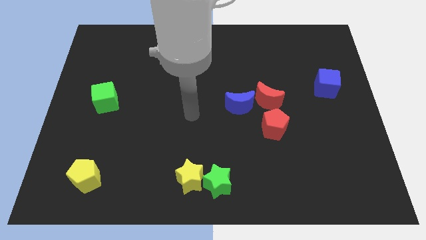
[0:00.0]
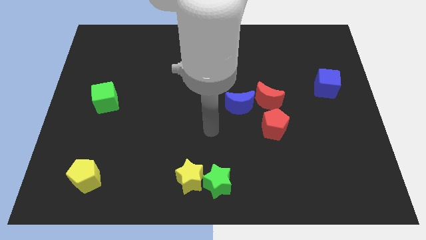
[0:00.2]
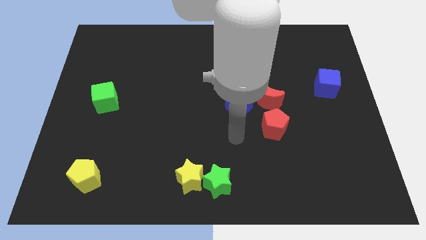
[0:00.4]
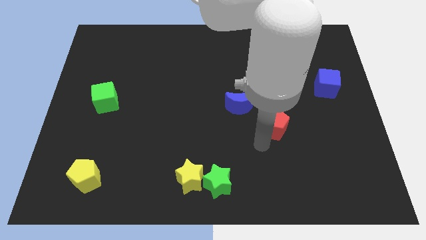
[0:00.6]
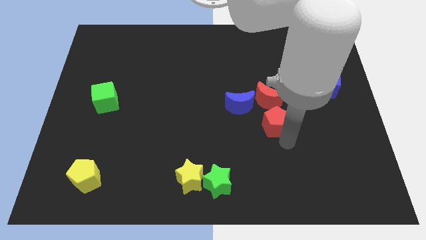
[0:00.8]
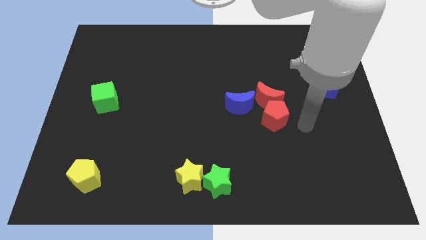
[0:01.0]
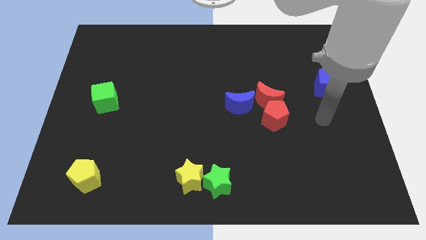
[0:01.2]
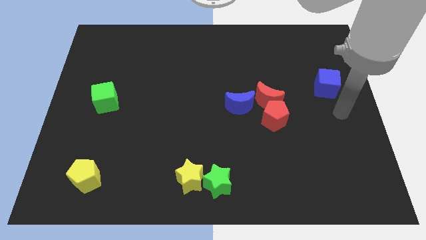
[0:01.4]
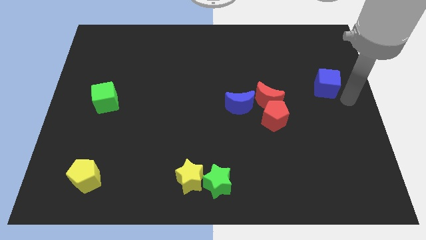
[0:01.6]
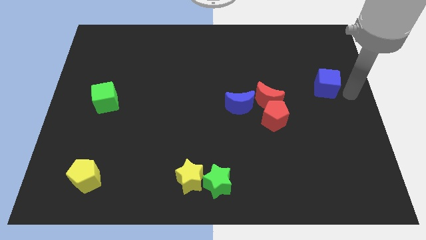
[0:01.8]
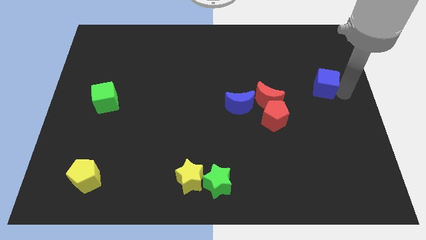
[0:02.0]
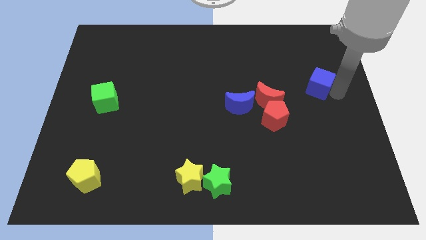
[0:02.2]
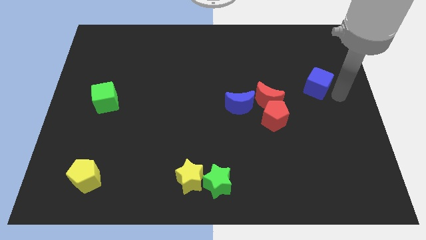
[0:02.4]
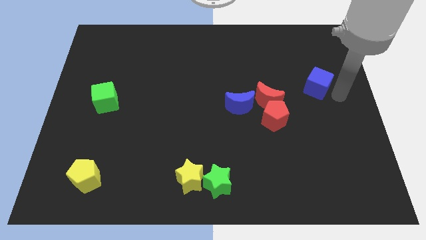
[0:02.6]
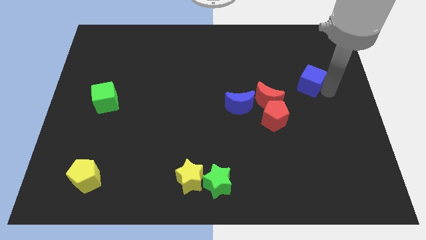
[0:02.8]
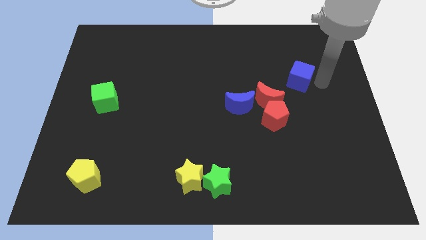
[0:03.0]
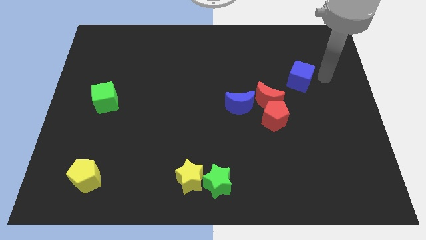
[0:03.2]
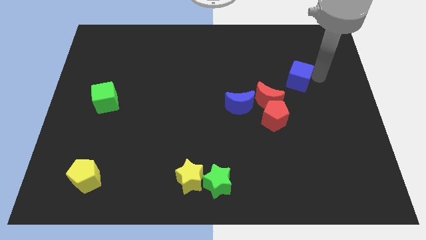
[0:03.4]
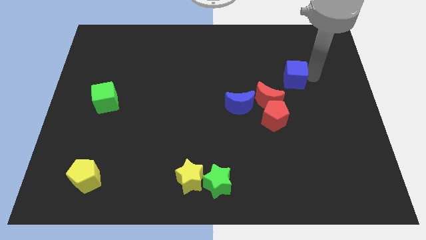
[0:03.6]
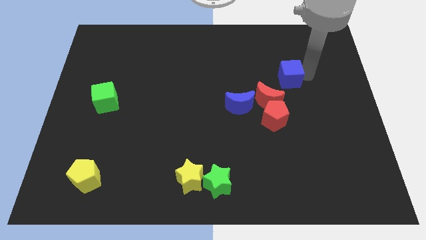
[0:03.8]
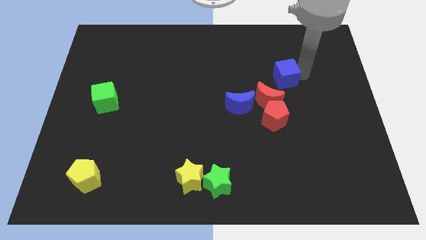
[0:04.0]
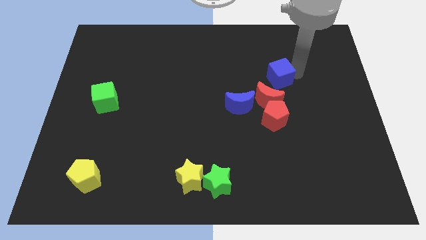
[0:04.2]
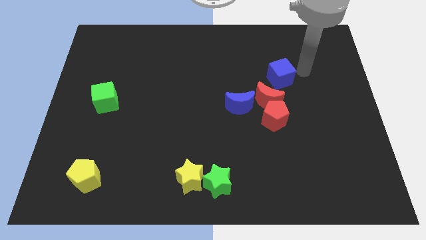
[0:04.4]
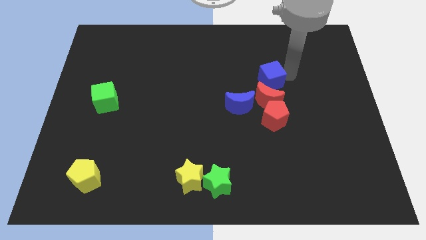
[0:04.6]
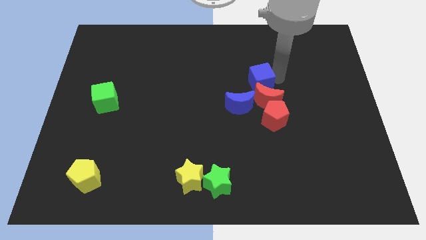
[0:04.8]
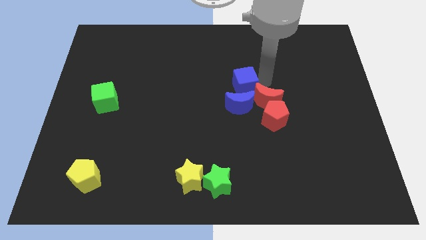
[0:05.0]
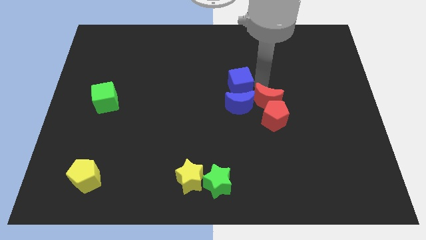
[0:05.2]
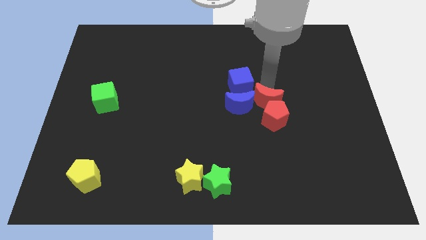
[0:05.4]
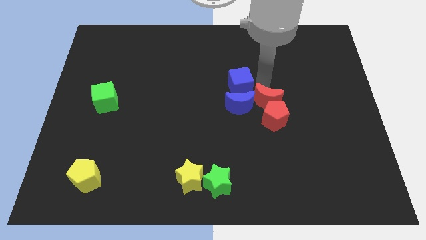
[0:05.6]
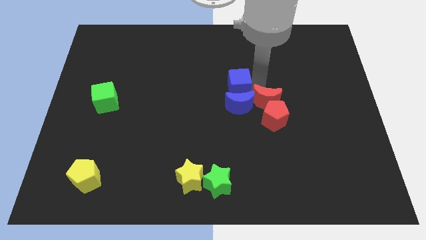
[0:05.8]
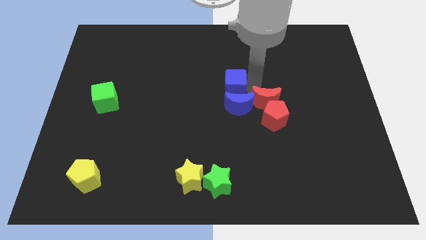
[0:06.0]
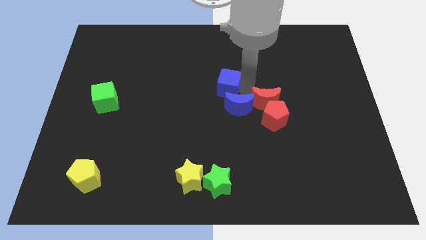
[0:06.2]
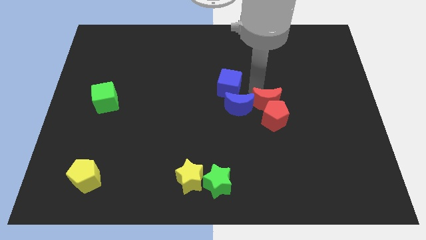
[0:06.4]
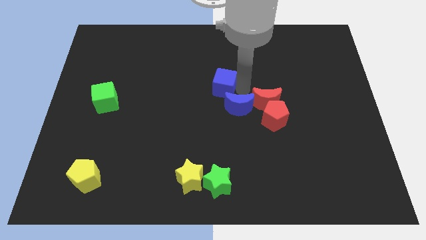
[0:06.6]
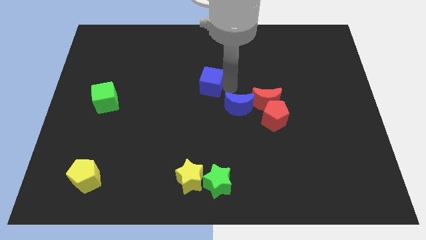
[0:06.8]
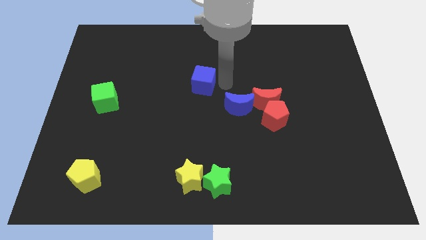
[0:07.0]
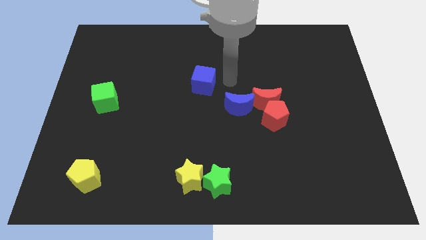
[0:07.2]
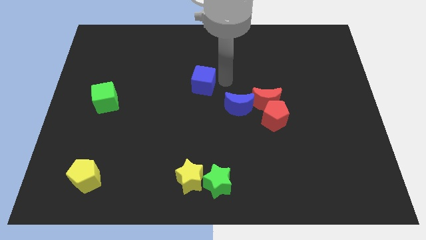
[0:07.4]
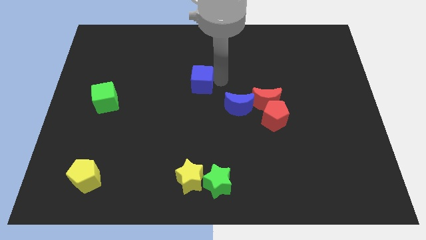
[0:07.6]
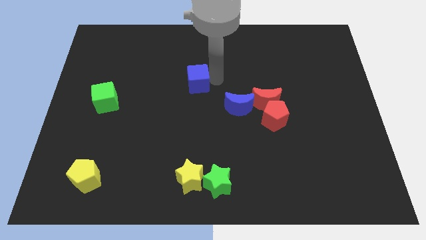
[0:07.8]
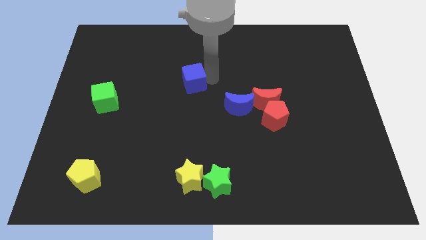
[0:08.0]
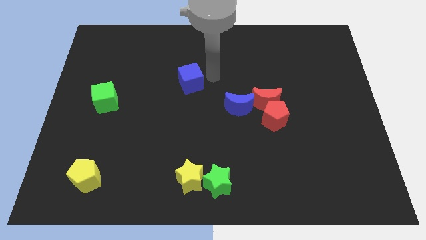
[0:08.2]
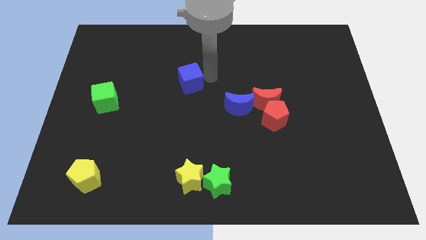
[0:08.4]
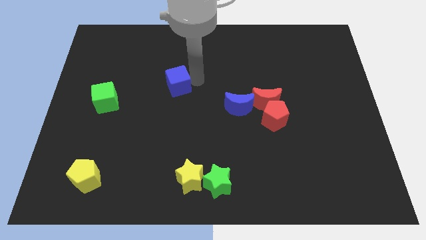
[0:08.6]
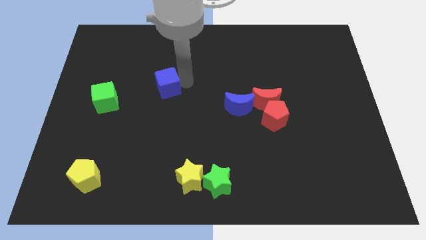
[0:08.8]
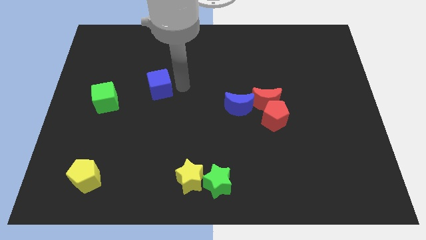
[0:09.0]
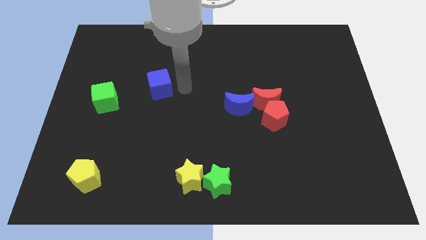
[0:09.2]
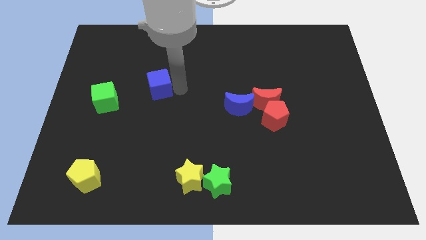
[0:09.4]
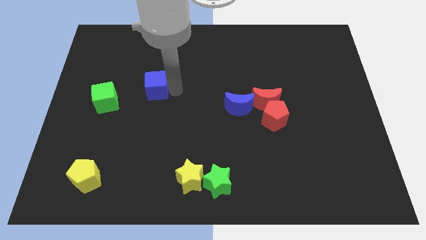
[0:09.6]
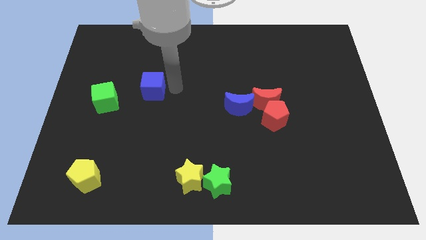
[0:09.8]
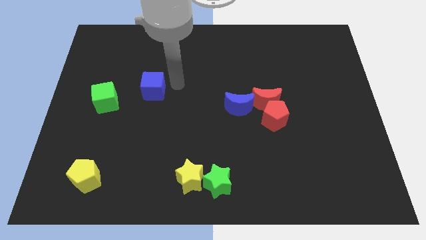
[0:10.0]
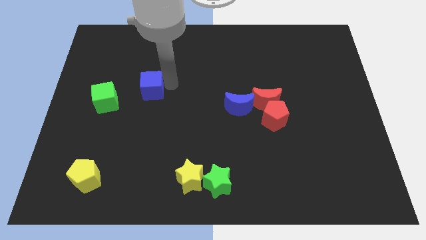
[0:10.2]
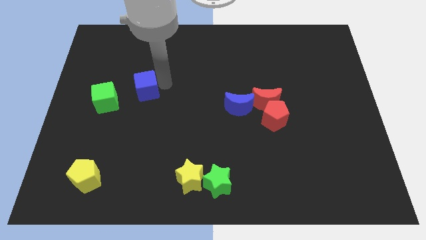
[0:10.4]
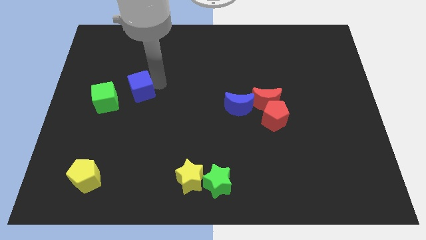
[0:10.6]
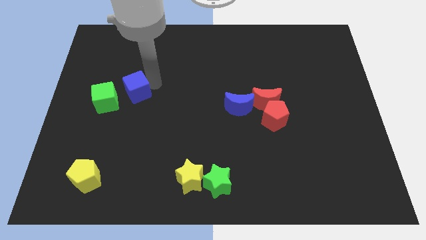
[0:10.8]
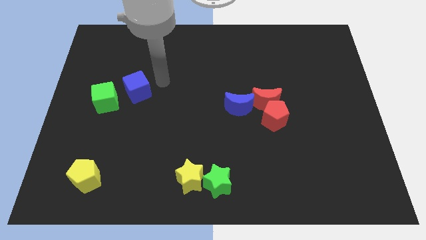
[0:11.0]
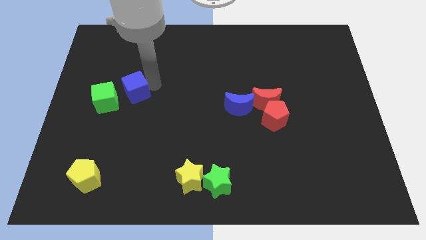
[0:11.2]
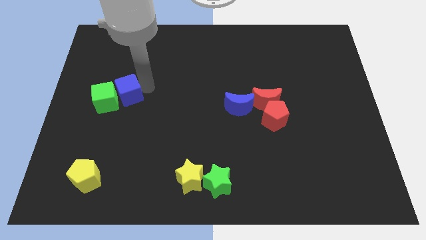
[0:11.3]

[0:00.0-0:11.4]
slide the blue cube close to the green cube

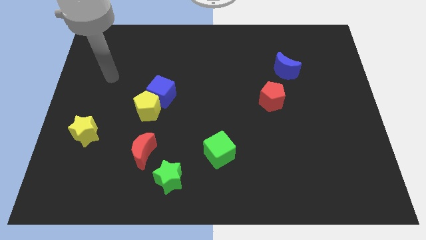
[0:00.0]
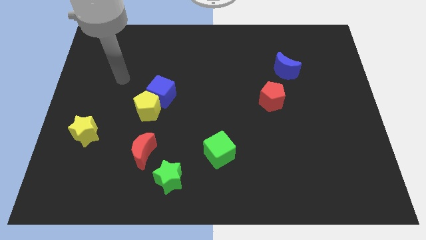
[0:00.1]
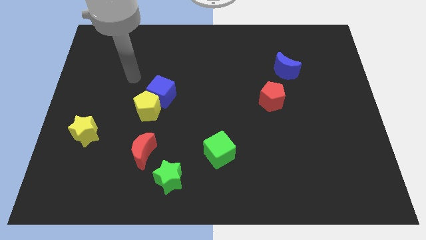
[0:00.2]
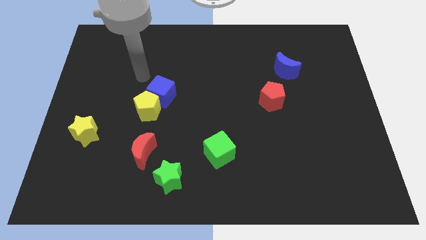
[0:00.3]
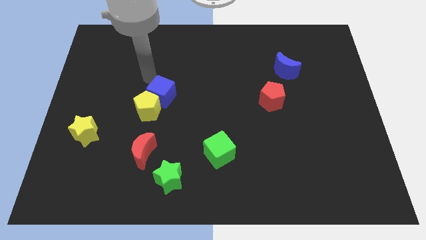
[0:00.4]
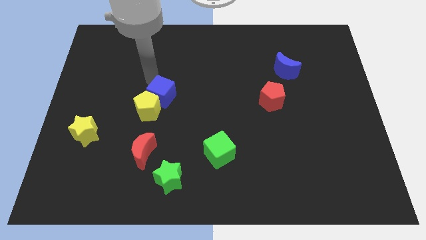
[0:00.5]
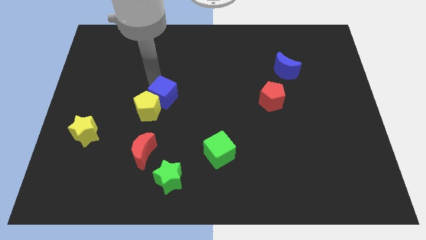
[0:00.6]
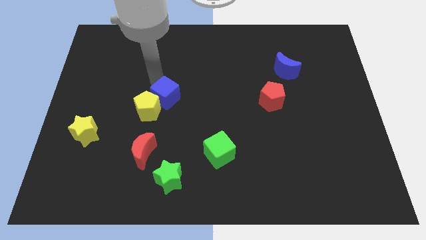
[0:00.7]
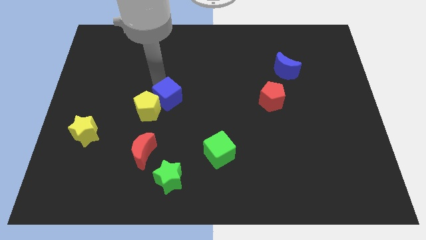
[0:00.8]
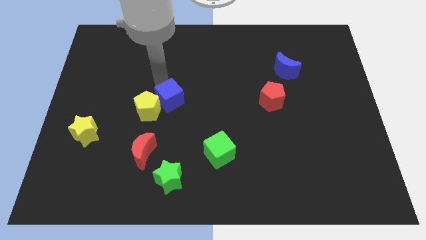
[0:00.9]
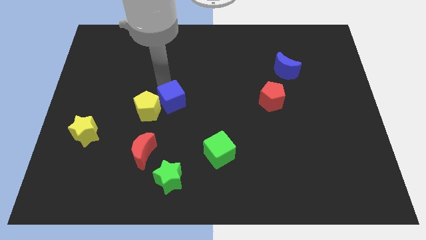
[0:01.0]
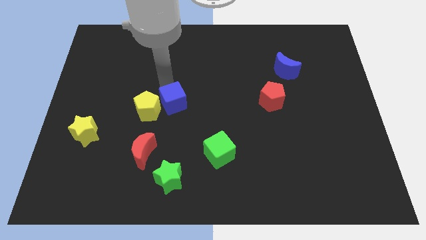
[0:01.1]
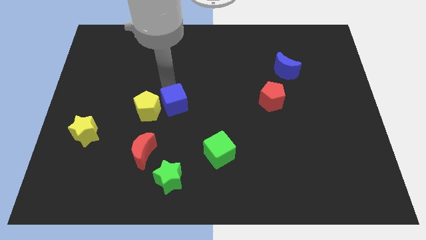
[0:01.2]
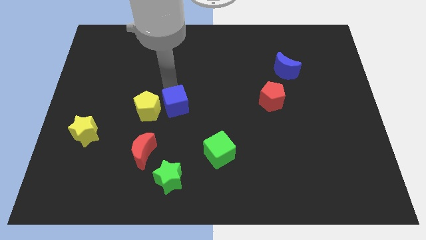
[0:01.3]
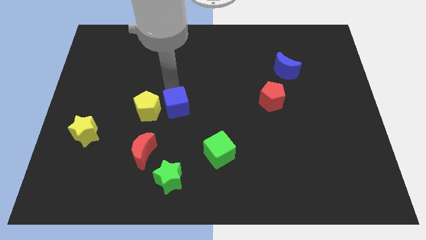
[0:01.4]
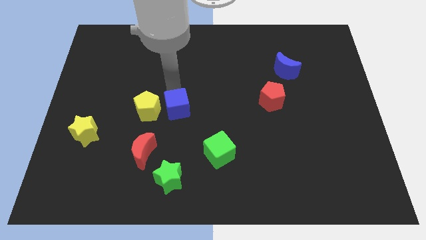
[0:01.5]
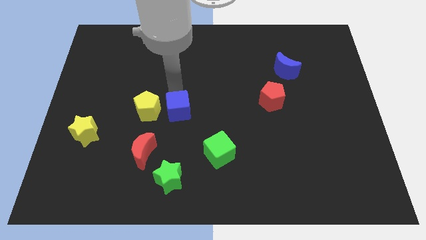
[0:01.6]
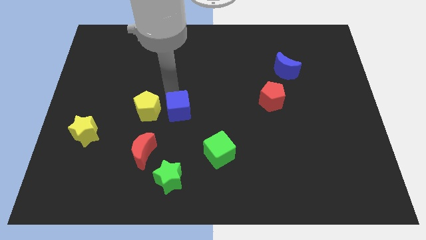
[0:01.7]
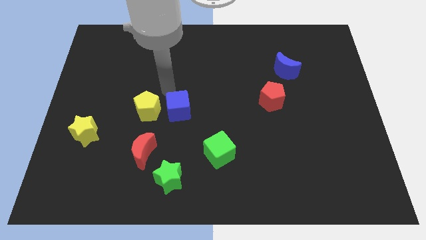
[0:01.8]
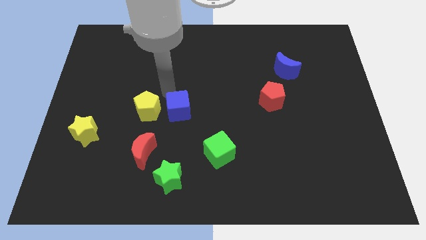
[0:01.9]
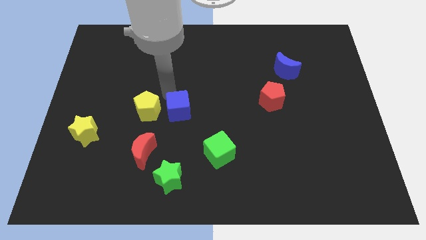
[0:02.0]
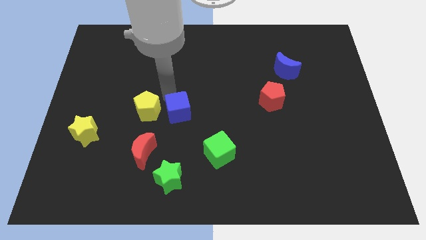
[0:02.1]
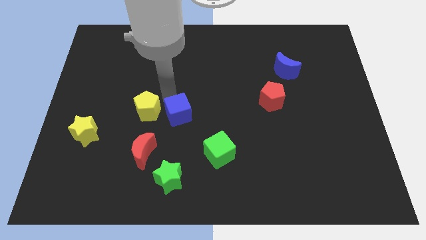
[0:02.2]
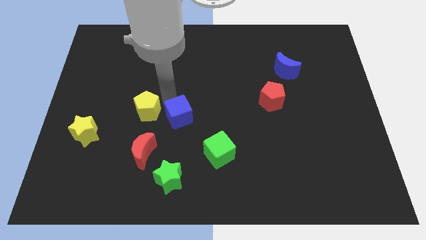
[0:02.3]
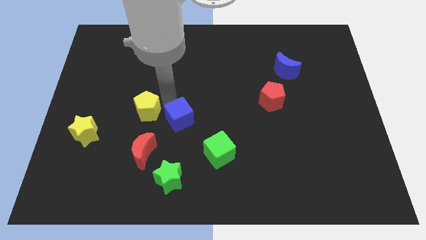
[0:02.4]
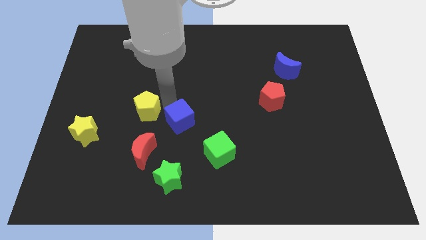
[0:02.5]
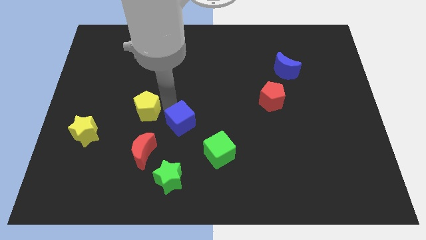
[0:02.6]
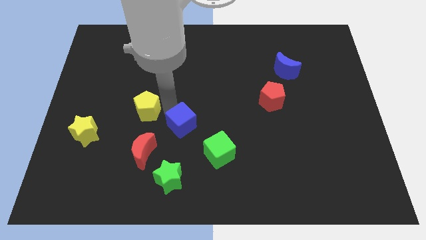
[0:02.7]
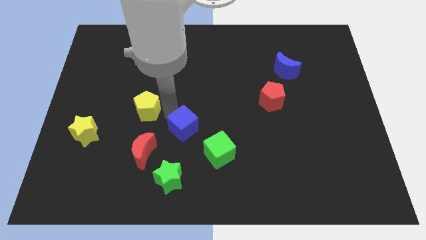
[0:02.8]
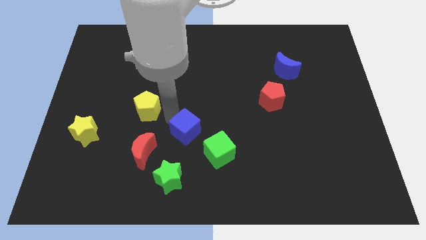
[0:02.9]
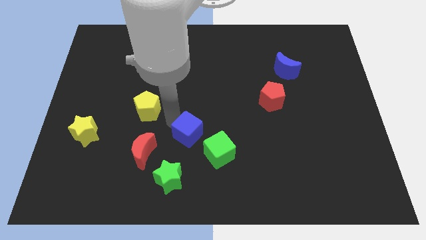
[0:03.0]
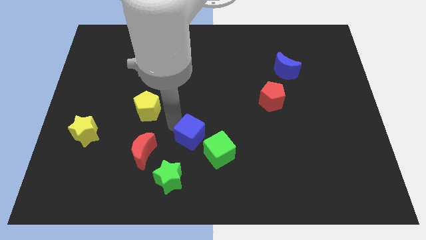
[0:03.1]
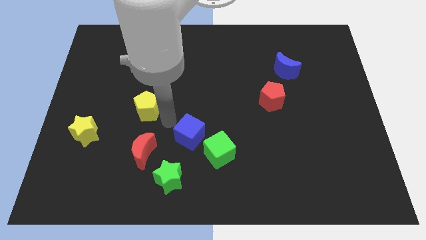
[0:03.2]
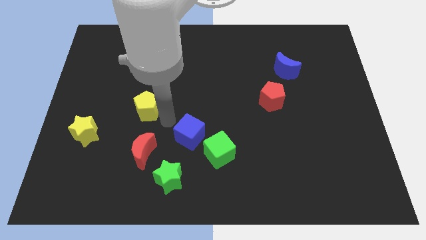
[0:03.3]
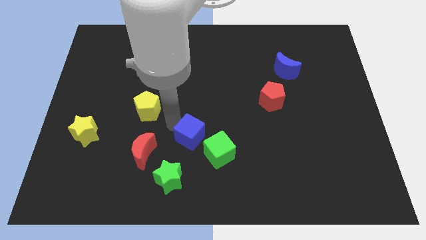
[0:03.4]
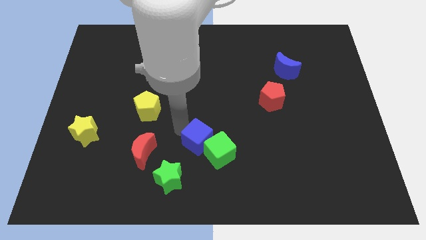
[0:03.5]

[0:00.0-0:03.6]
move the blue cube close to the green cube
